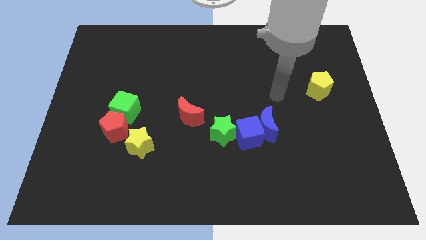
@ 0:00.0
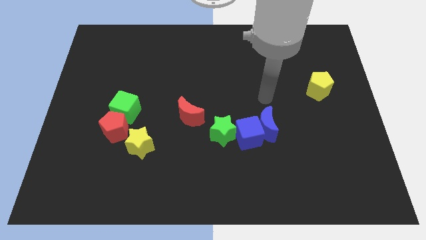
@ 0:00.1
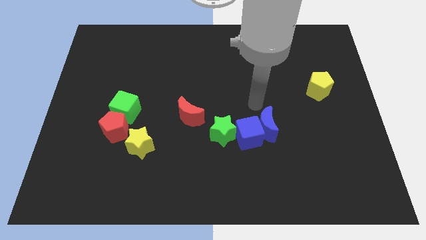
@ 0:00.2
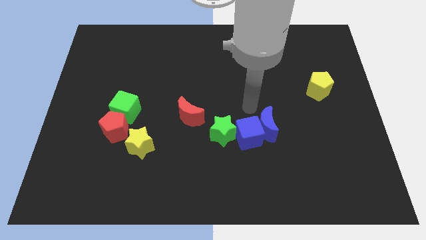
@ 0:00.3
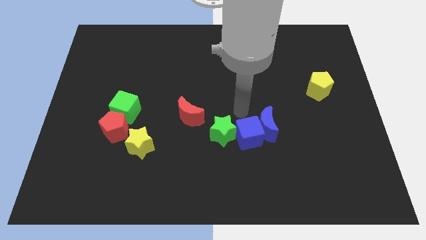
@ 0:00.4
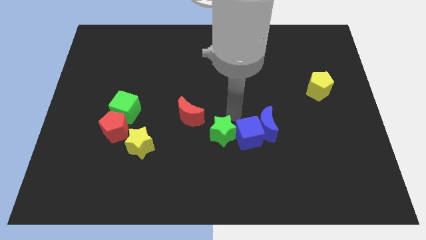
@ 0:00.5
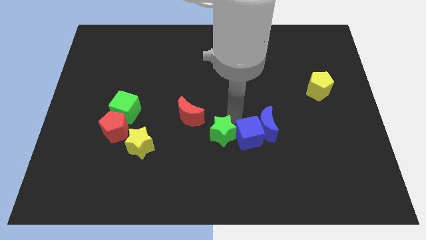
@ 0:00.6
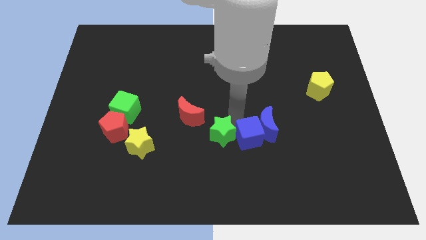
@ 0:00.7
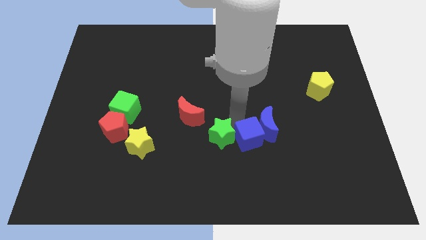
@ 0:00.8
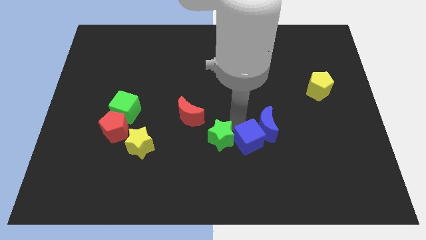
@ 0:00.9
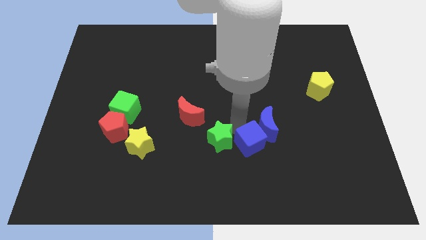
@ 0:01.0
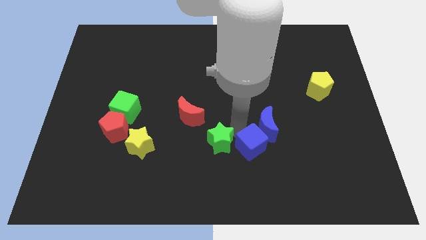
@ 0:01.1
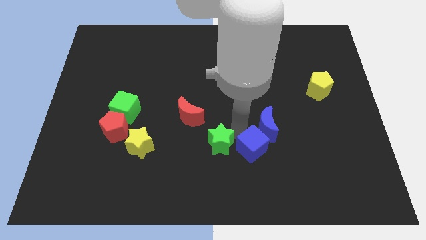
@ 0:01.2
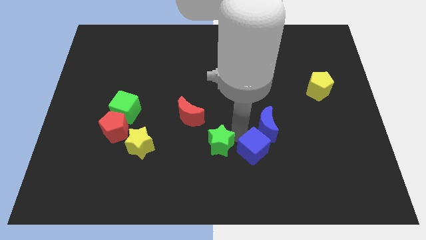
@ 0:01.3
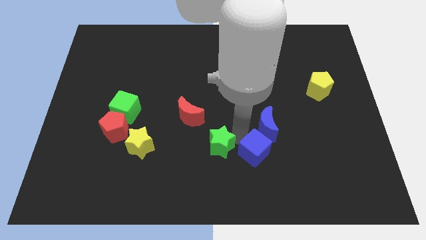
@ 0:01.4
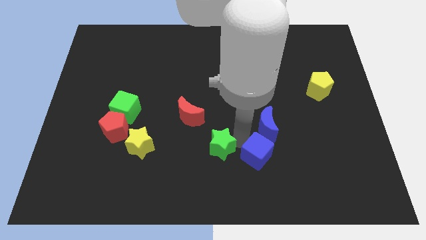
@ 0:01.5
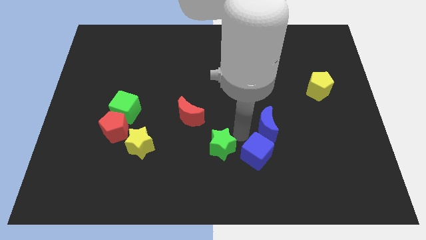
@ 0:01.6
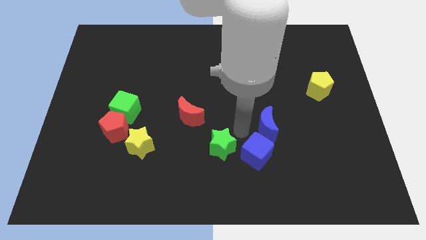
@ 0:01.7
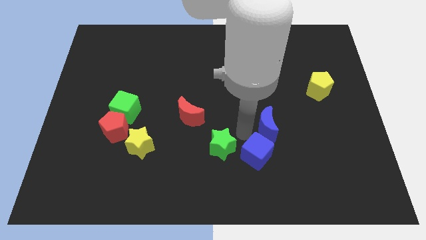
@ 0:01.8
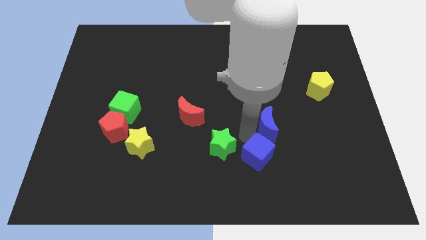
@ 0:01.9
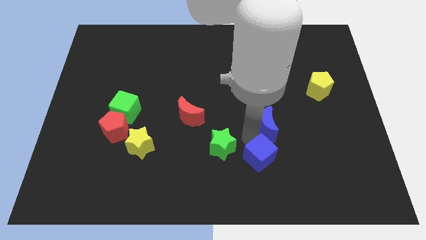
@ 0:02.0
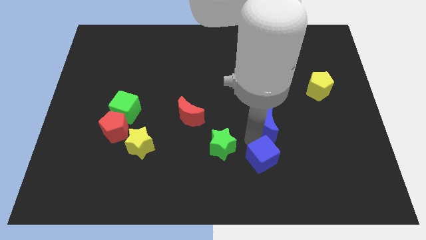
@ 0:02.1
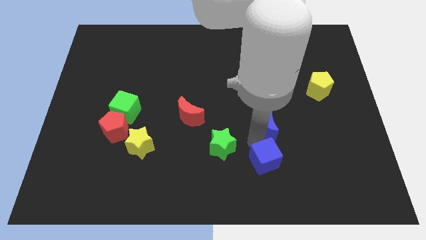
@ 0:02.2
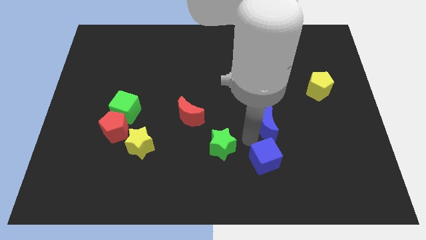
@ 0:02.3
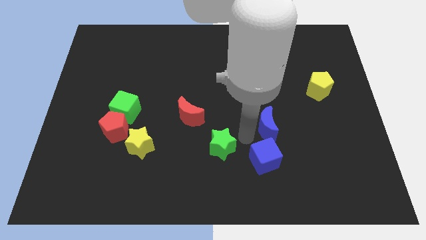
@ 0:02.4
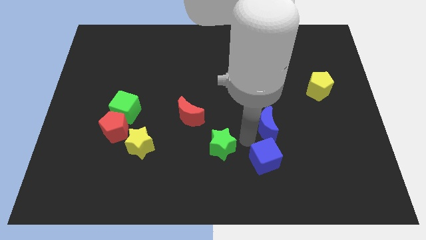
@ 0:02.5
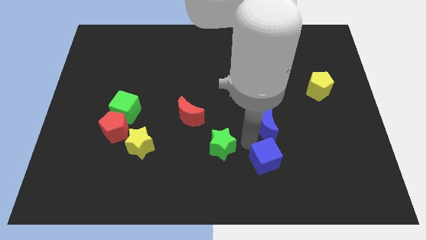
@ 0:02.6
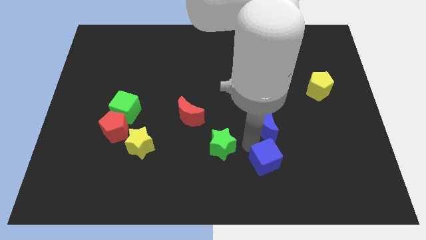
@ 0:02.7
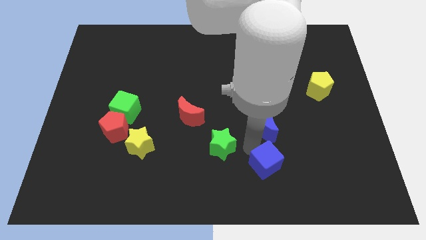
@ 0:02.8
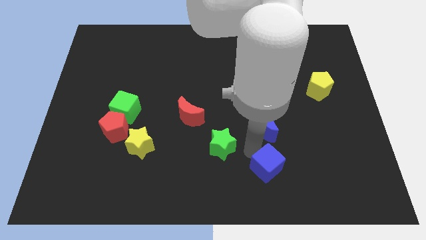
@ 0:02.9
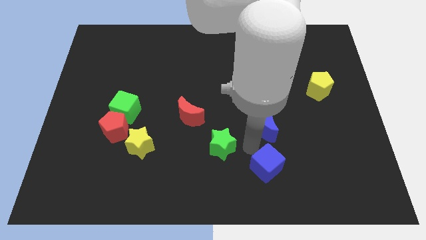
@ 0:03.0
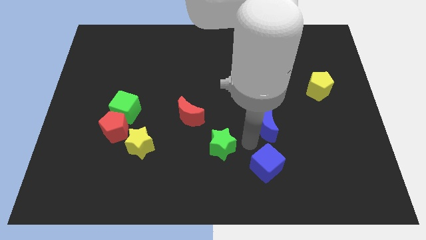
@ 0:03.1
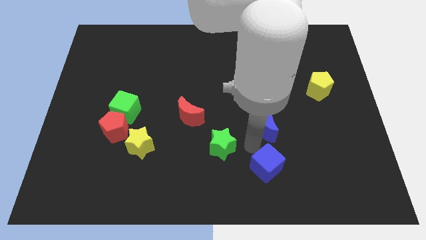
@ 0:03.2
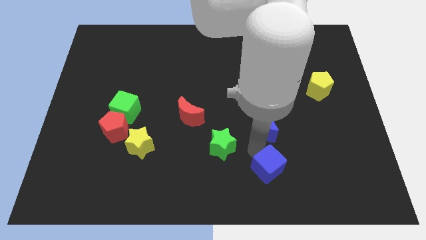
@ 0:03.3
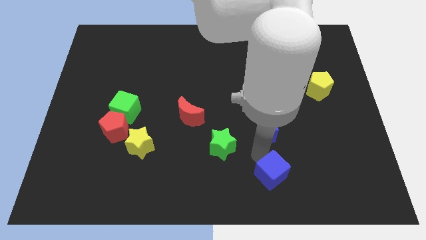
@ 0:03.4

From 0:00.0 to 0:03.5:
move the blue cube away from the blue moon and green star

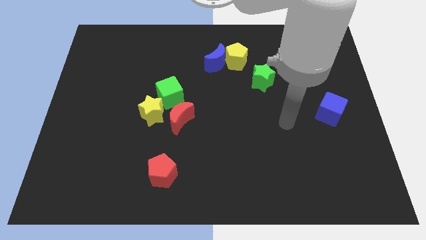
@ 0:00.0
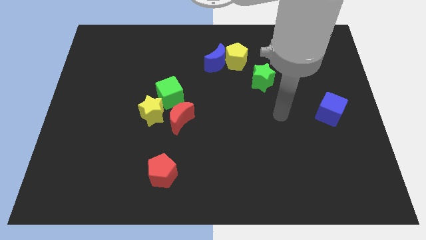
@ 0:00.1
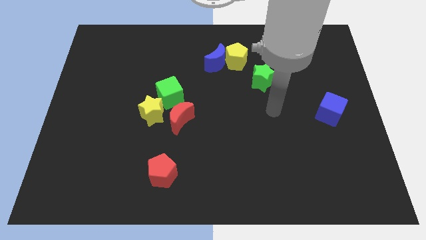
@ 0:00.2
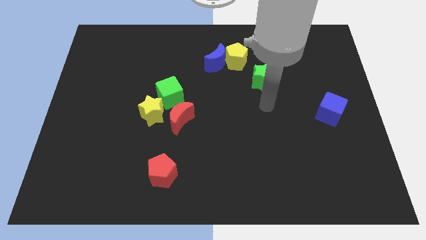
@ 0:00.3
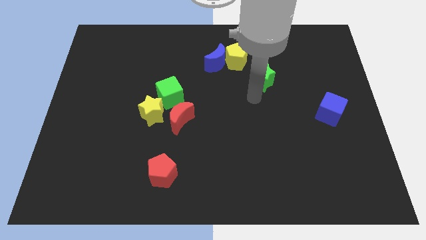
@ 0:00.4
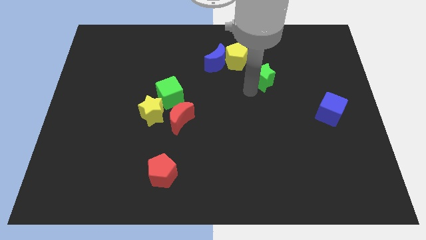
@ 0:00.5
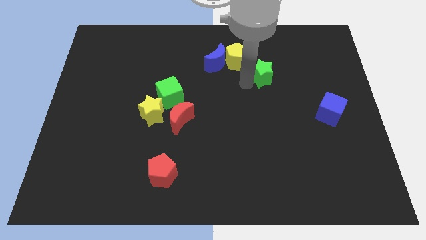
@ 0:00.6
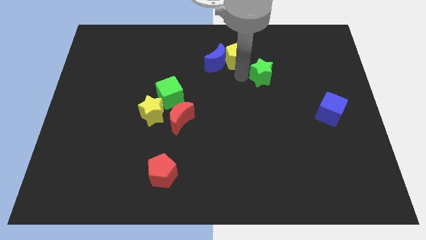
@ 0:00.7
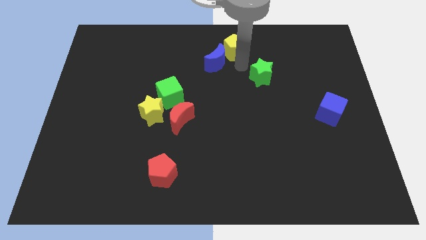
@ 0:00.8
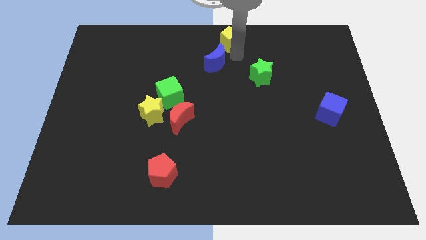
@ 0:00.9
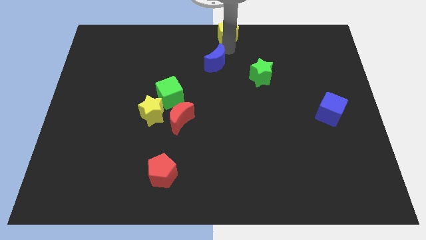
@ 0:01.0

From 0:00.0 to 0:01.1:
separate the blue moon from the yellow pentagon

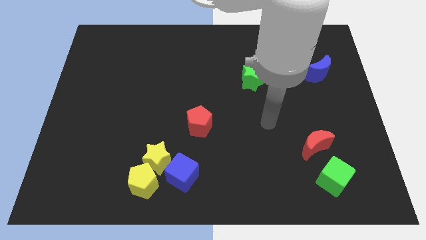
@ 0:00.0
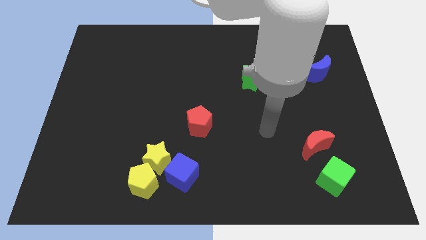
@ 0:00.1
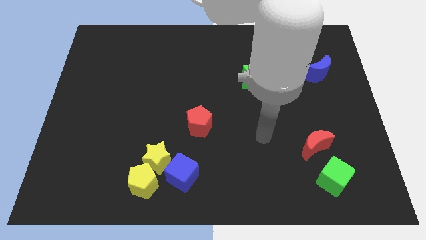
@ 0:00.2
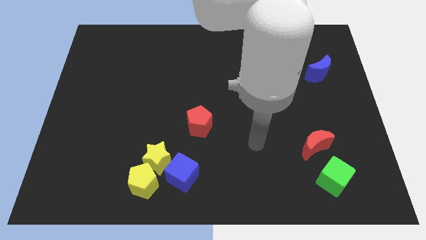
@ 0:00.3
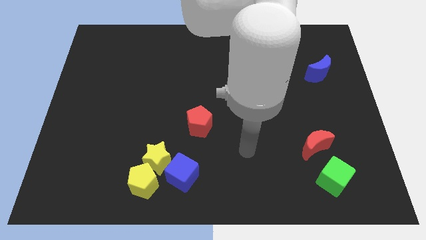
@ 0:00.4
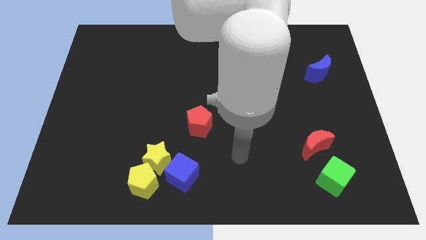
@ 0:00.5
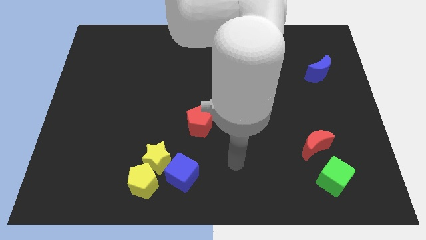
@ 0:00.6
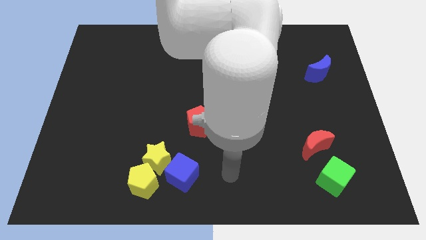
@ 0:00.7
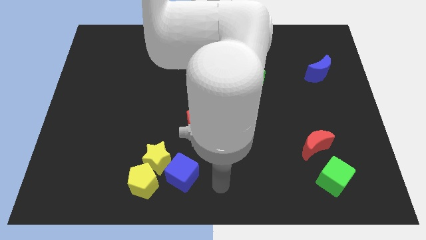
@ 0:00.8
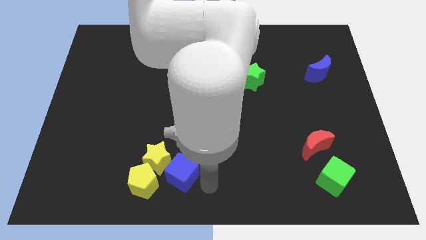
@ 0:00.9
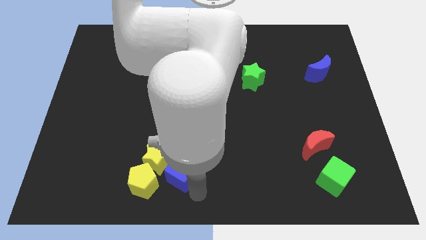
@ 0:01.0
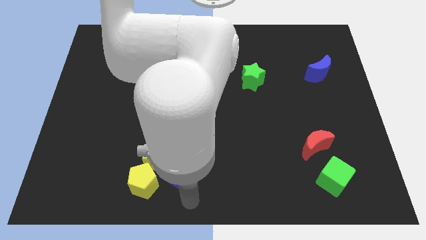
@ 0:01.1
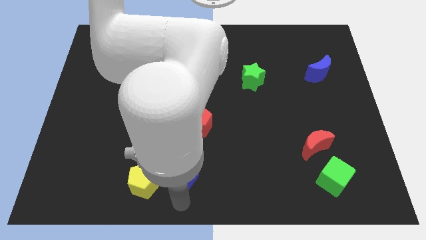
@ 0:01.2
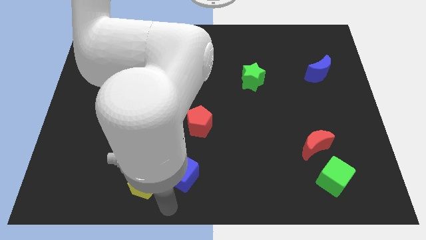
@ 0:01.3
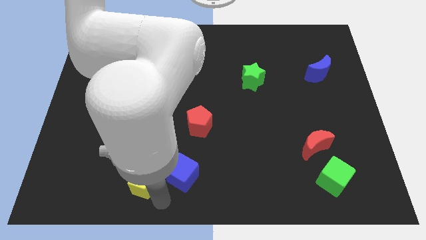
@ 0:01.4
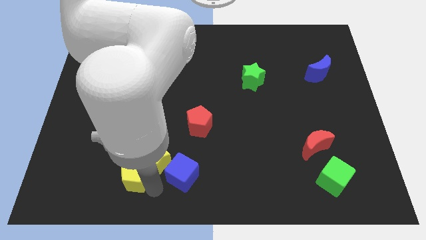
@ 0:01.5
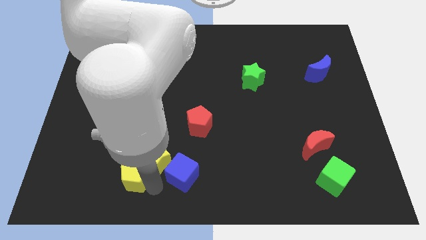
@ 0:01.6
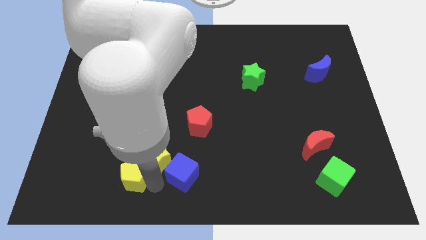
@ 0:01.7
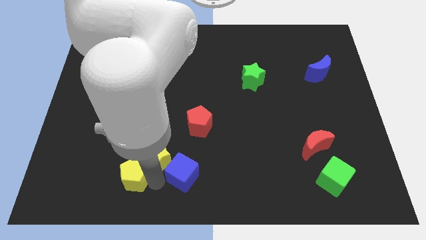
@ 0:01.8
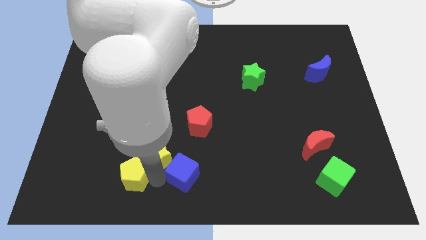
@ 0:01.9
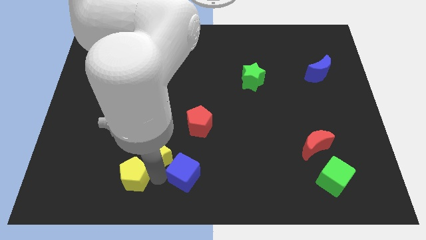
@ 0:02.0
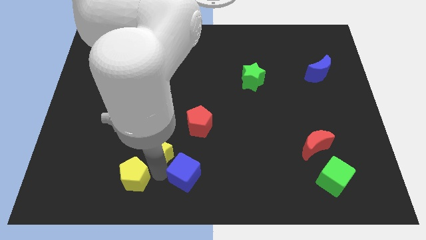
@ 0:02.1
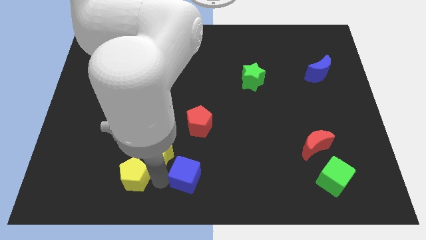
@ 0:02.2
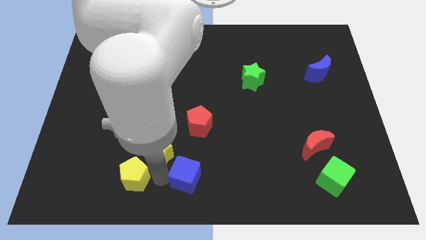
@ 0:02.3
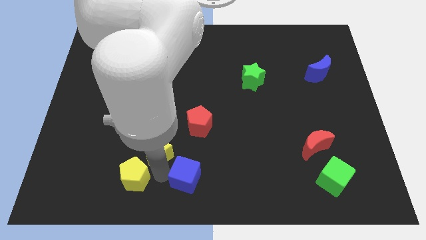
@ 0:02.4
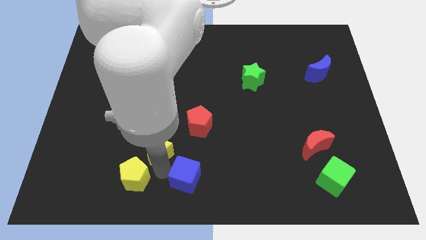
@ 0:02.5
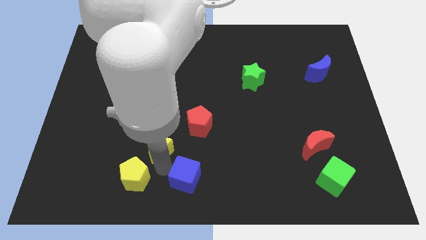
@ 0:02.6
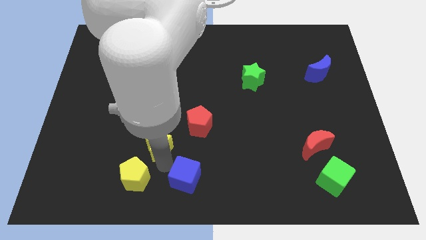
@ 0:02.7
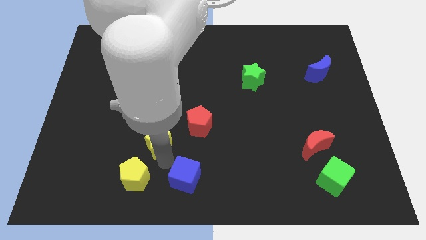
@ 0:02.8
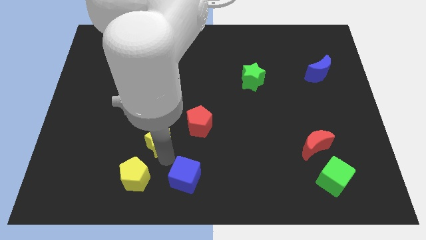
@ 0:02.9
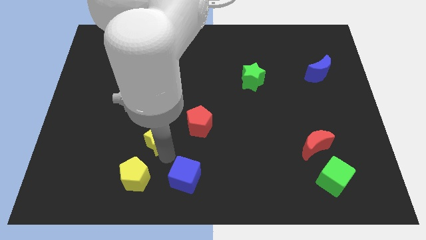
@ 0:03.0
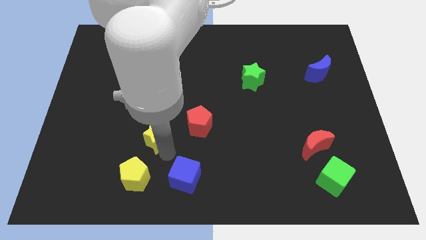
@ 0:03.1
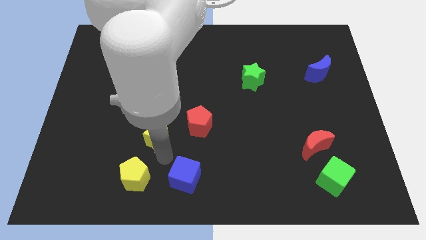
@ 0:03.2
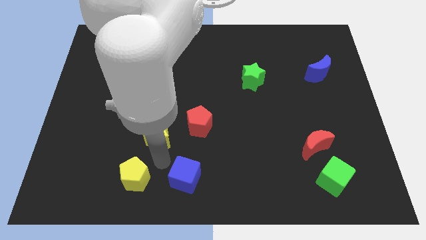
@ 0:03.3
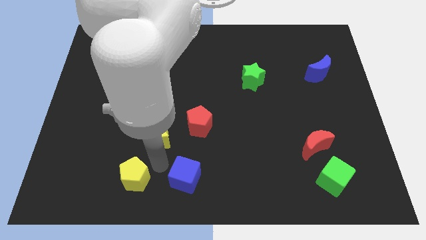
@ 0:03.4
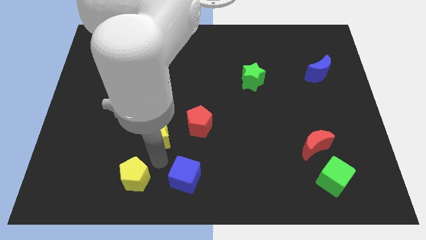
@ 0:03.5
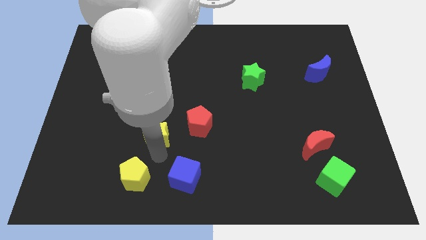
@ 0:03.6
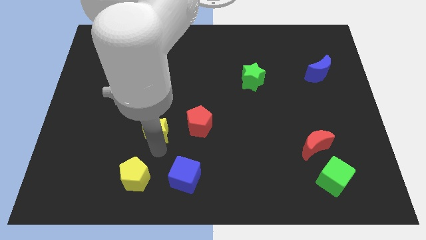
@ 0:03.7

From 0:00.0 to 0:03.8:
move the yellow star away from the yellow pentagon and blue cube

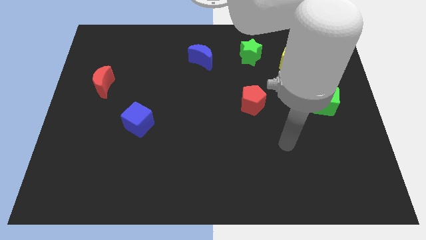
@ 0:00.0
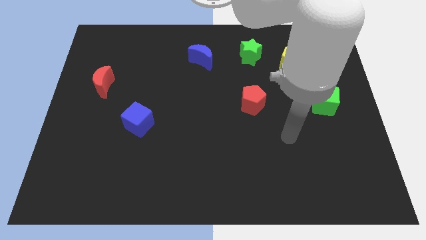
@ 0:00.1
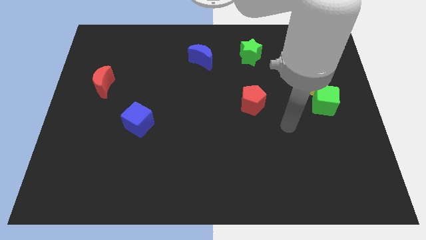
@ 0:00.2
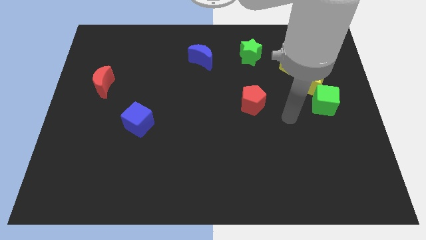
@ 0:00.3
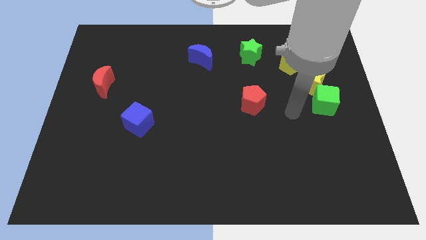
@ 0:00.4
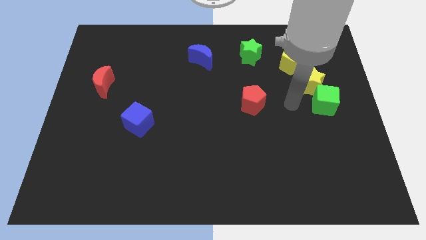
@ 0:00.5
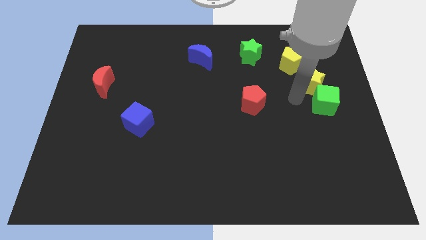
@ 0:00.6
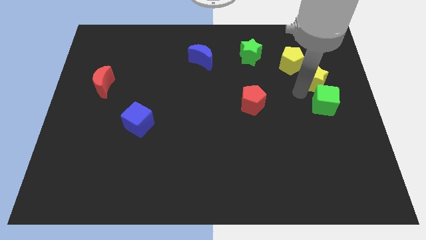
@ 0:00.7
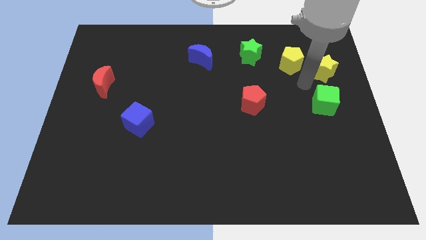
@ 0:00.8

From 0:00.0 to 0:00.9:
move the green cube away from the yellow star
